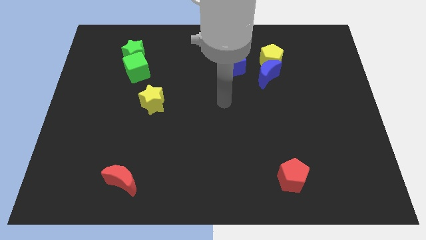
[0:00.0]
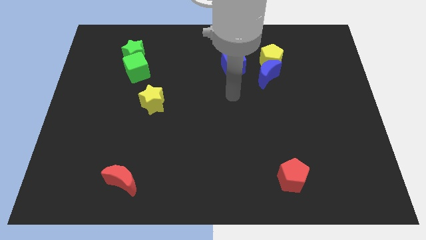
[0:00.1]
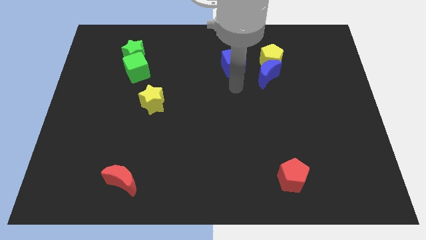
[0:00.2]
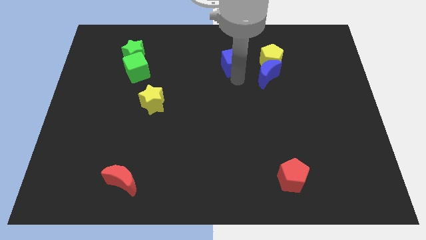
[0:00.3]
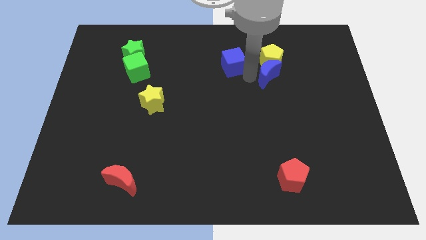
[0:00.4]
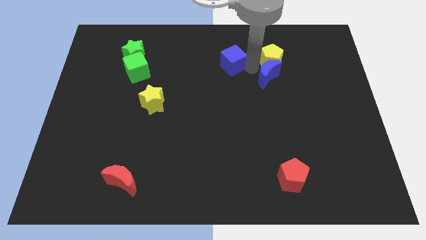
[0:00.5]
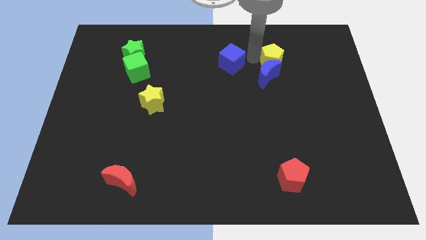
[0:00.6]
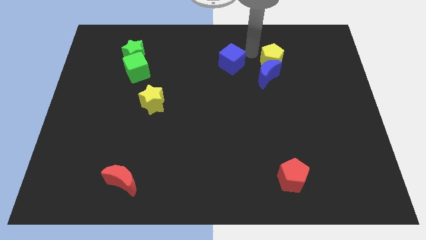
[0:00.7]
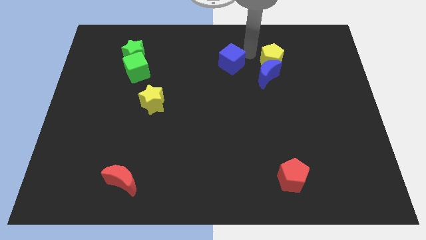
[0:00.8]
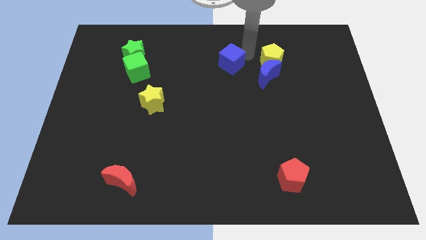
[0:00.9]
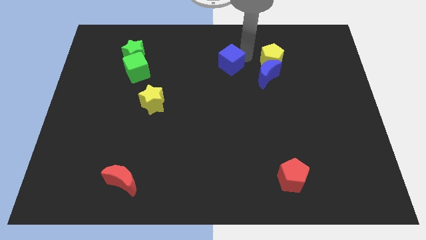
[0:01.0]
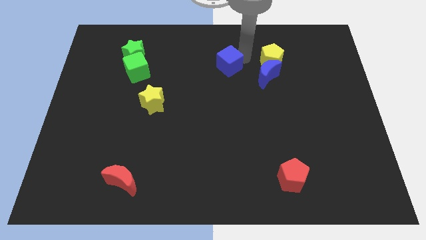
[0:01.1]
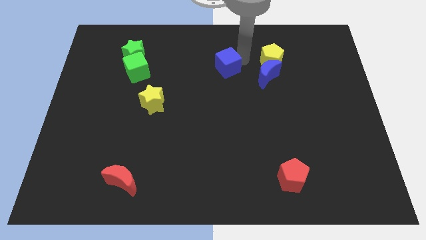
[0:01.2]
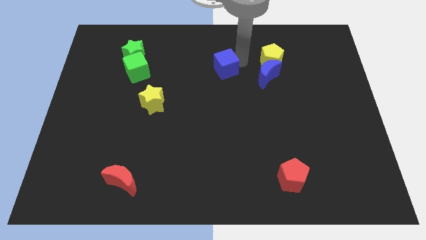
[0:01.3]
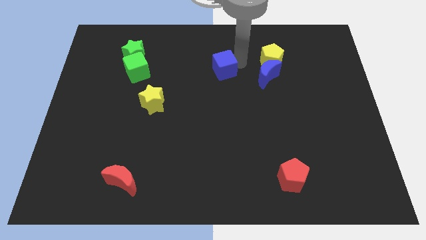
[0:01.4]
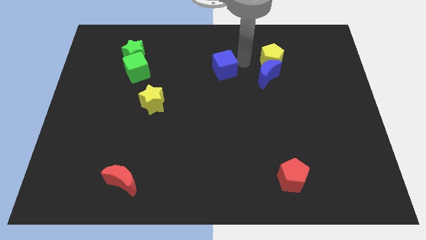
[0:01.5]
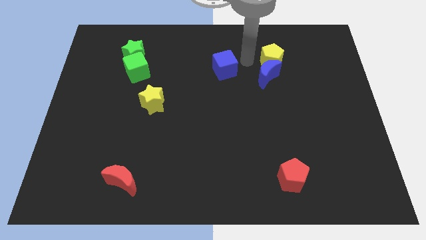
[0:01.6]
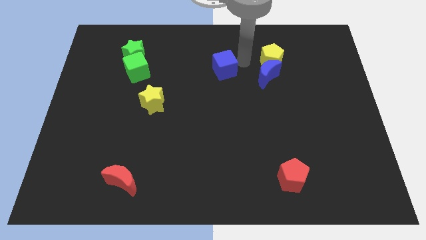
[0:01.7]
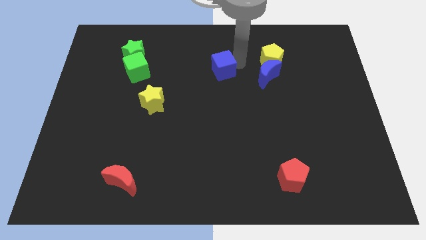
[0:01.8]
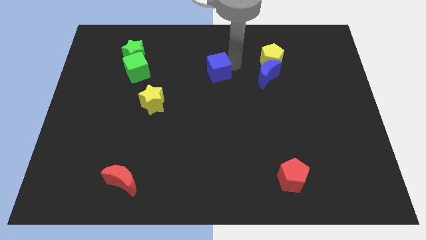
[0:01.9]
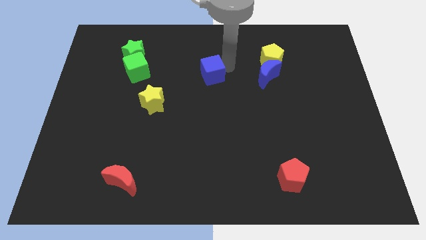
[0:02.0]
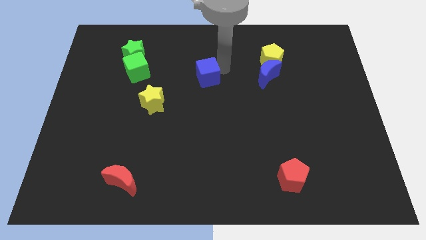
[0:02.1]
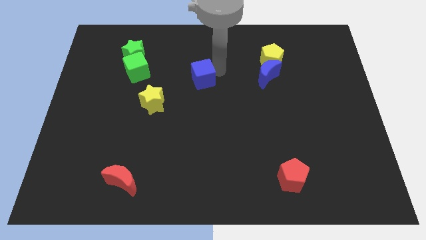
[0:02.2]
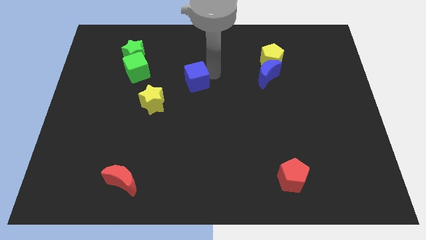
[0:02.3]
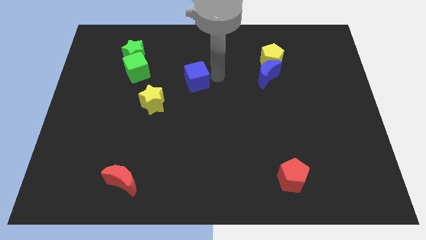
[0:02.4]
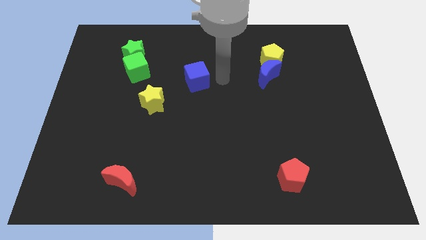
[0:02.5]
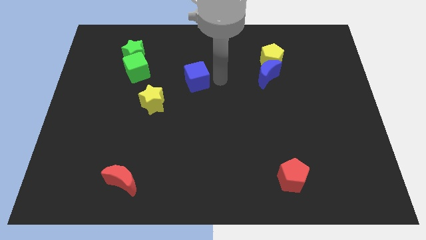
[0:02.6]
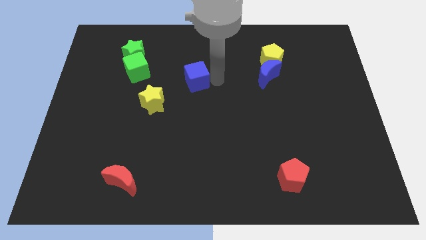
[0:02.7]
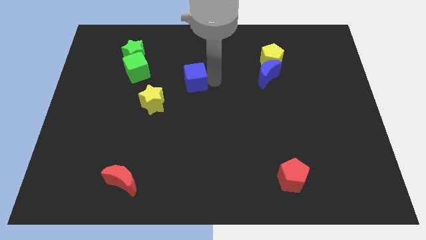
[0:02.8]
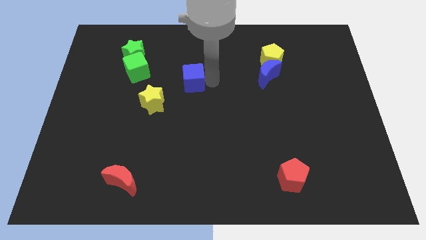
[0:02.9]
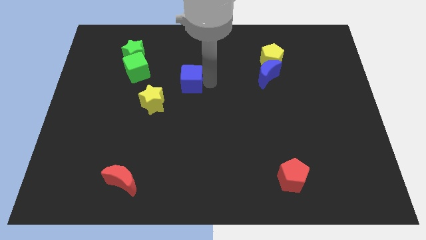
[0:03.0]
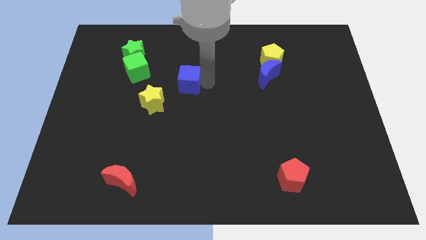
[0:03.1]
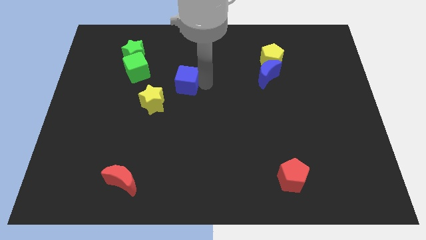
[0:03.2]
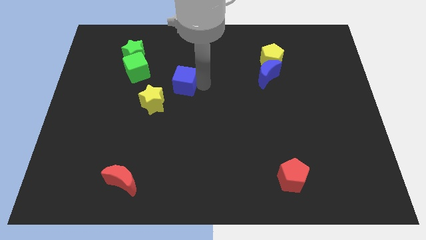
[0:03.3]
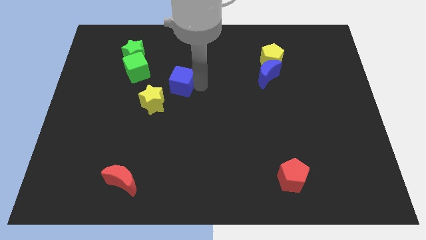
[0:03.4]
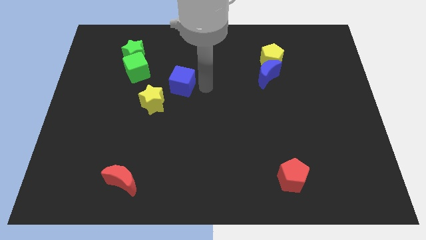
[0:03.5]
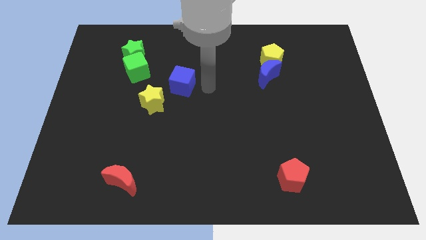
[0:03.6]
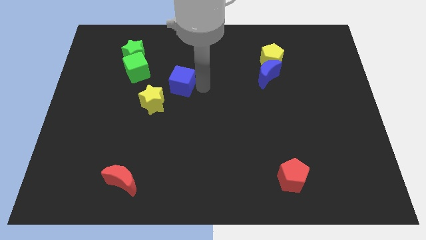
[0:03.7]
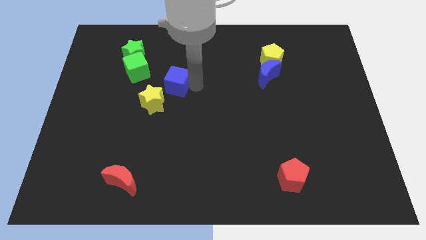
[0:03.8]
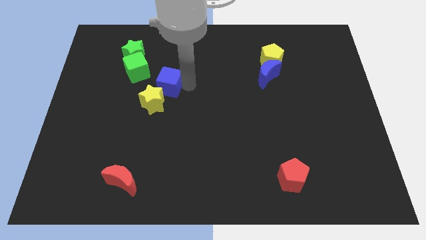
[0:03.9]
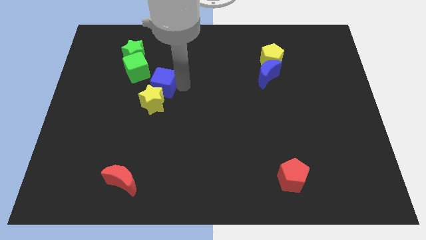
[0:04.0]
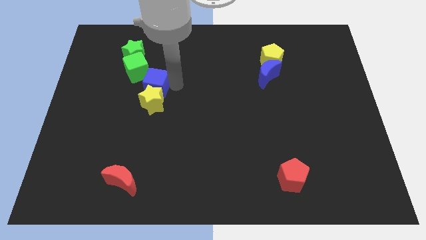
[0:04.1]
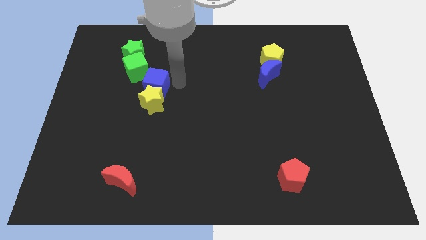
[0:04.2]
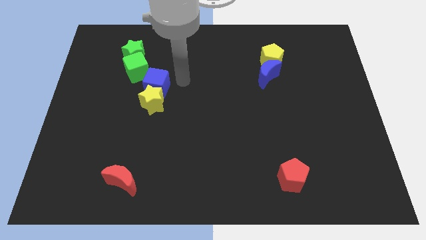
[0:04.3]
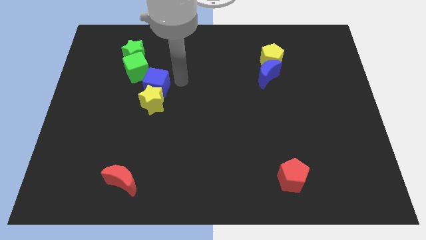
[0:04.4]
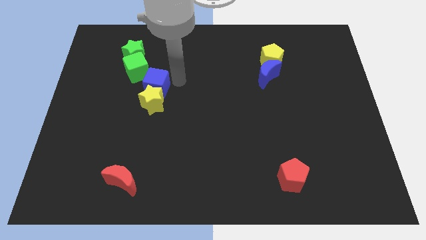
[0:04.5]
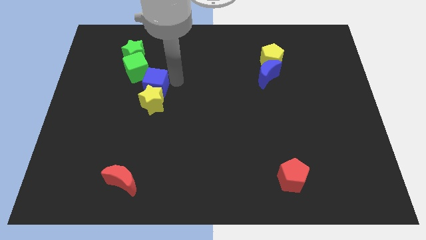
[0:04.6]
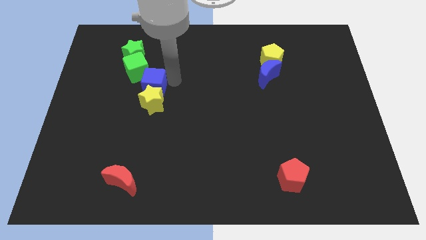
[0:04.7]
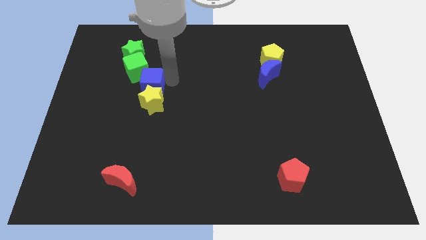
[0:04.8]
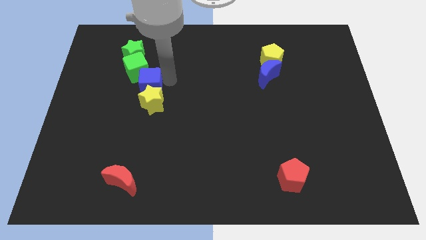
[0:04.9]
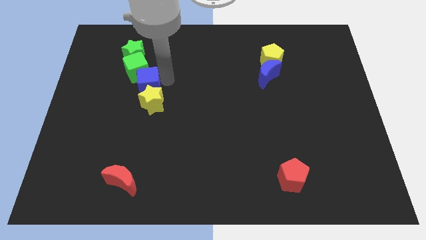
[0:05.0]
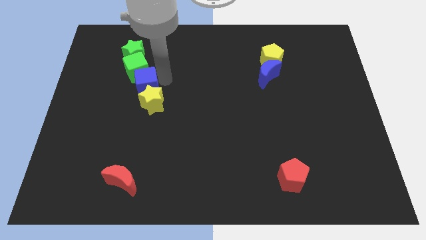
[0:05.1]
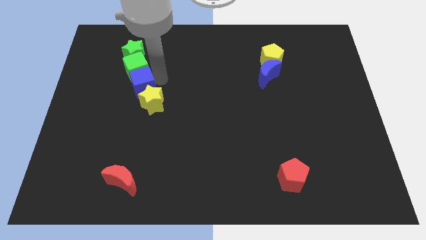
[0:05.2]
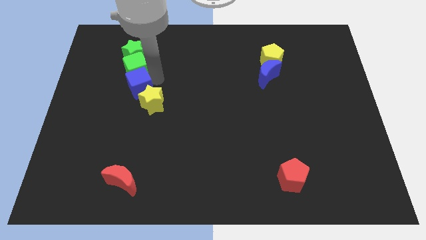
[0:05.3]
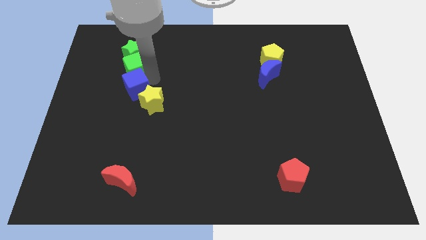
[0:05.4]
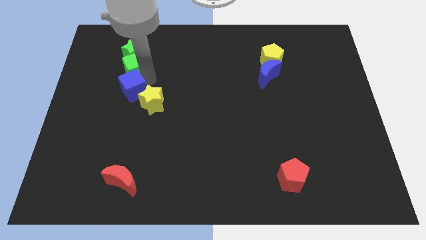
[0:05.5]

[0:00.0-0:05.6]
push the blue cube to the left side of the yellow star

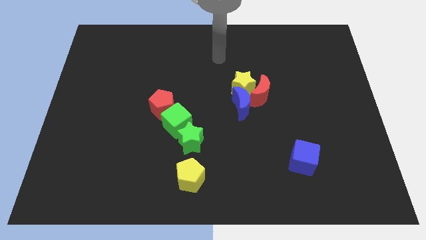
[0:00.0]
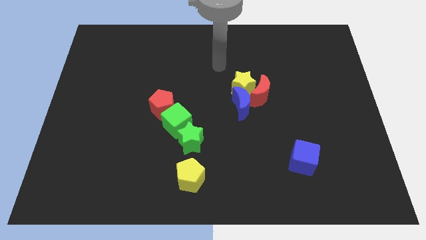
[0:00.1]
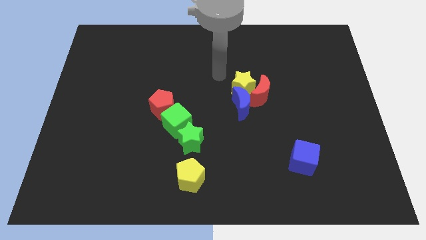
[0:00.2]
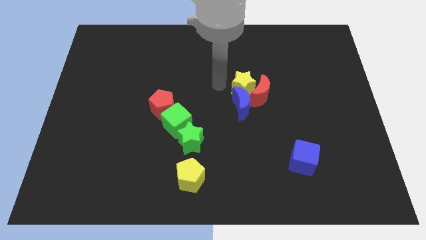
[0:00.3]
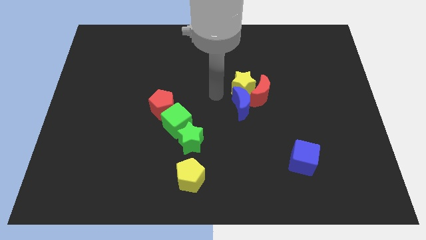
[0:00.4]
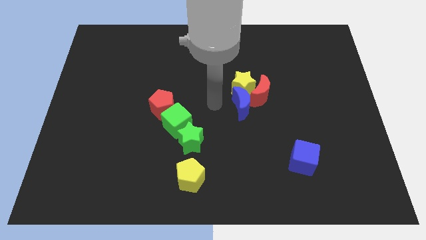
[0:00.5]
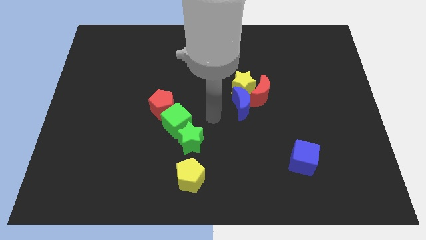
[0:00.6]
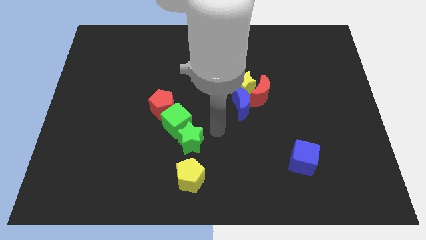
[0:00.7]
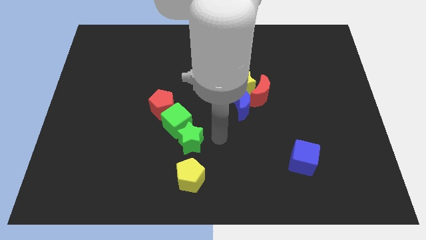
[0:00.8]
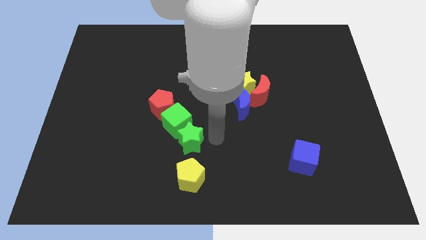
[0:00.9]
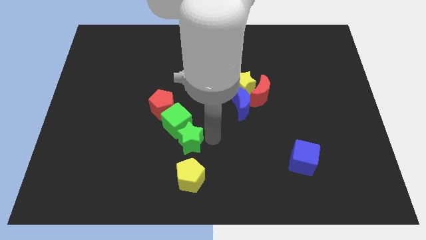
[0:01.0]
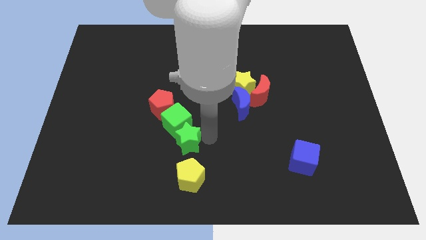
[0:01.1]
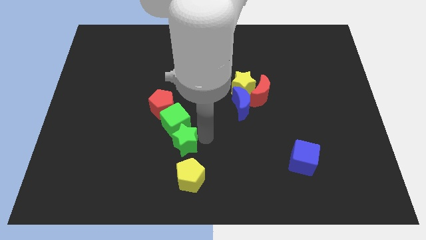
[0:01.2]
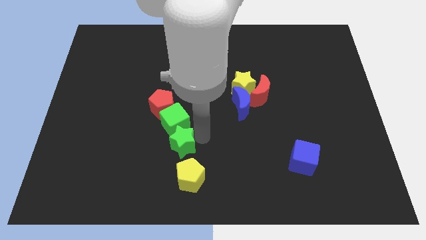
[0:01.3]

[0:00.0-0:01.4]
slide the green star to the bottom side of the red pentagon

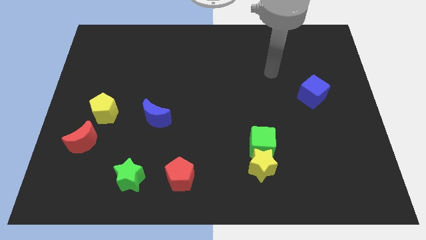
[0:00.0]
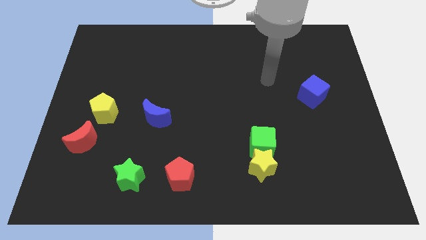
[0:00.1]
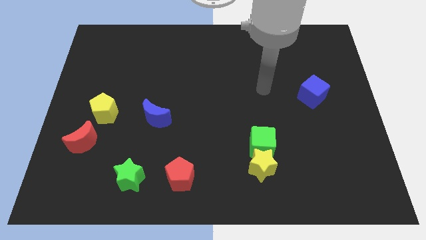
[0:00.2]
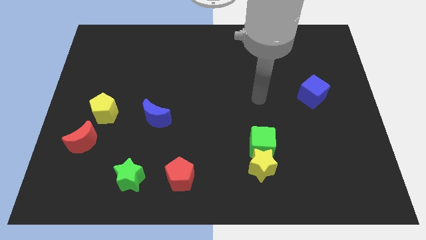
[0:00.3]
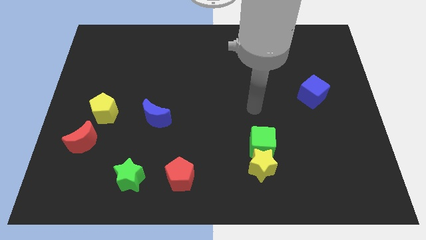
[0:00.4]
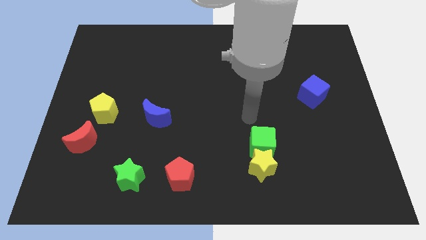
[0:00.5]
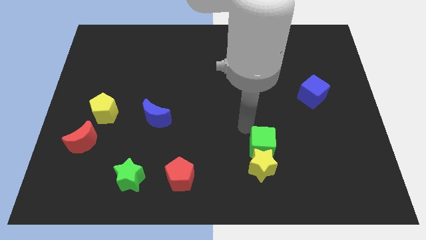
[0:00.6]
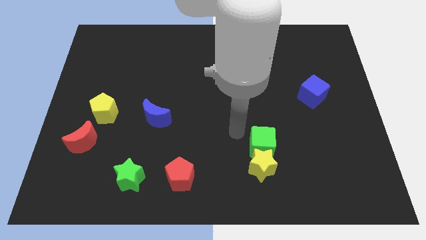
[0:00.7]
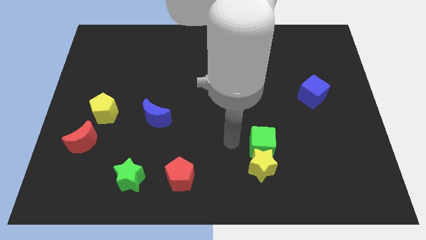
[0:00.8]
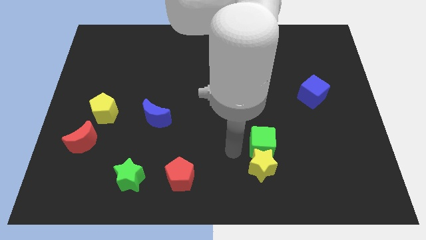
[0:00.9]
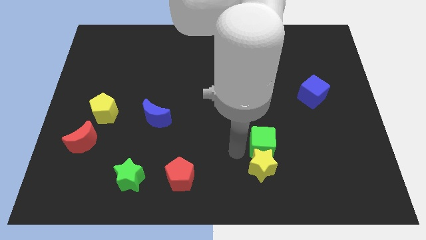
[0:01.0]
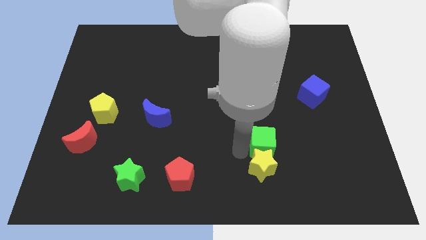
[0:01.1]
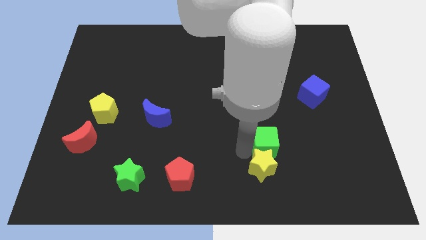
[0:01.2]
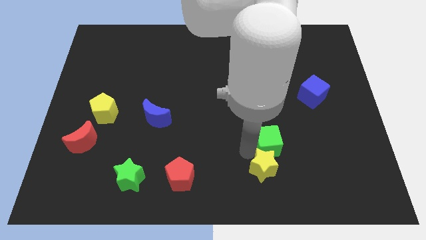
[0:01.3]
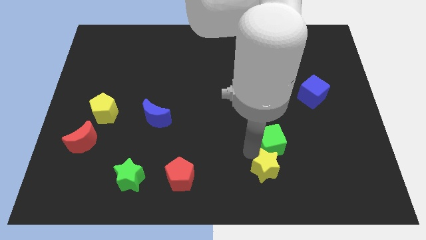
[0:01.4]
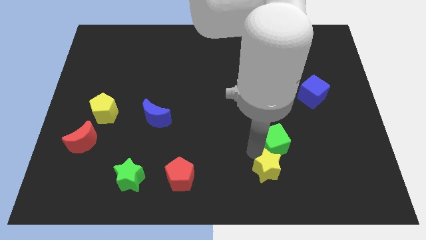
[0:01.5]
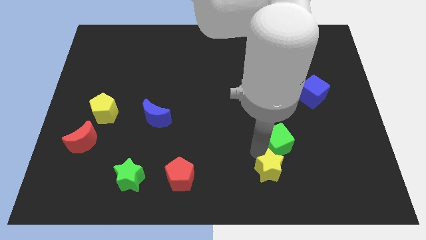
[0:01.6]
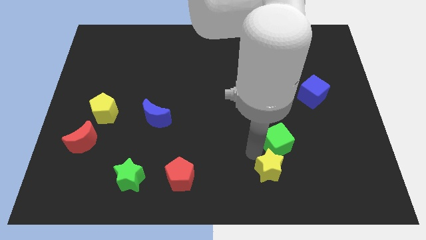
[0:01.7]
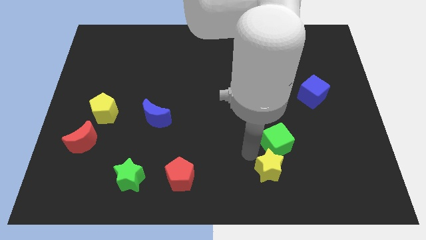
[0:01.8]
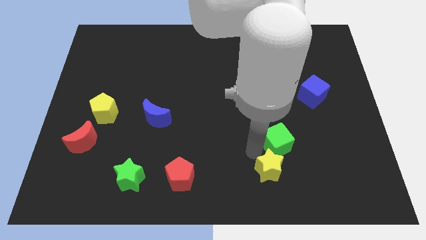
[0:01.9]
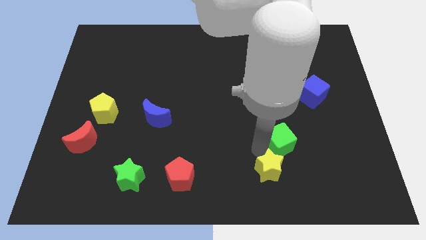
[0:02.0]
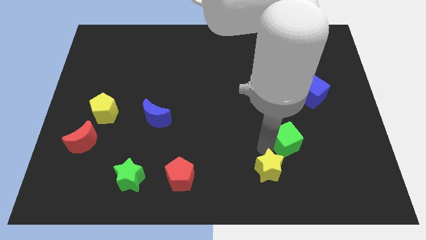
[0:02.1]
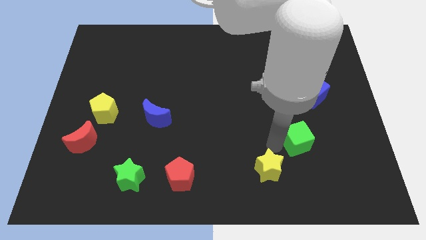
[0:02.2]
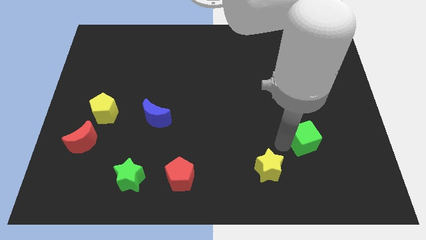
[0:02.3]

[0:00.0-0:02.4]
put the green cube to the bottom side of the blue cube
